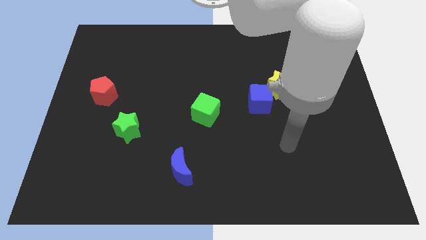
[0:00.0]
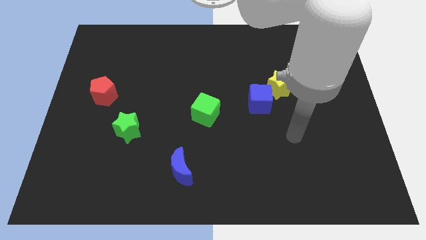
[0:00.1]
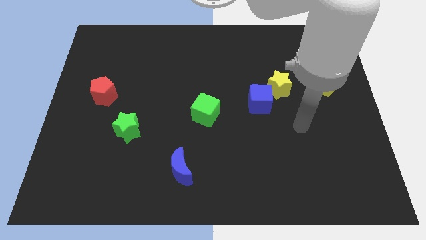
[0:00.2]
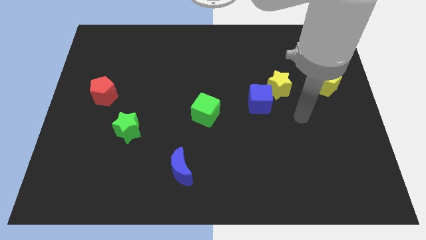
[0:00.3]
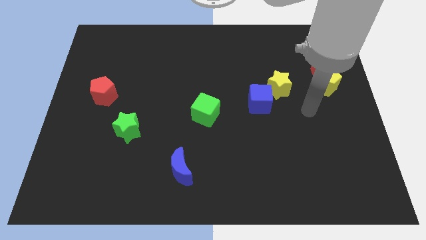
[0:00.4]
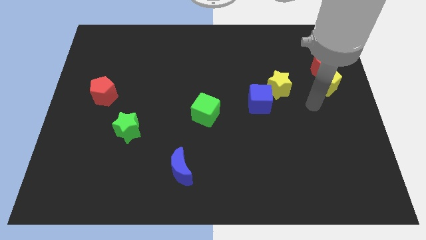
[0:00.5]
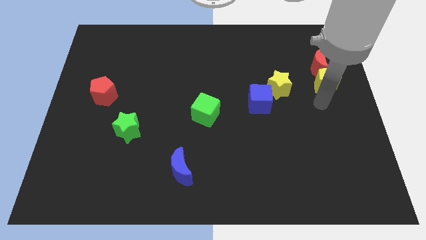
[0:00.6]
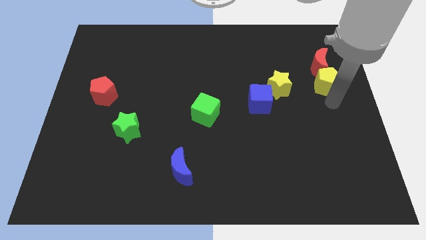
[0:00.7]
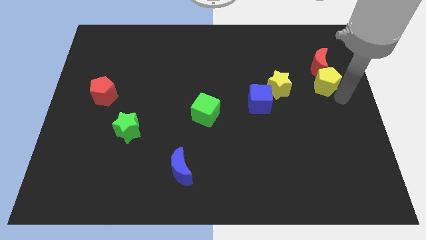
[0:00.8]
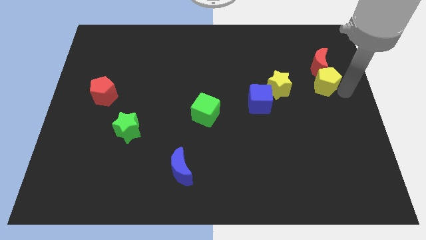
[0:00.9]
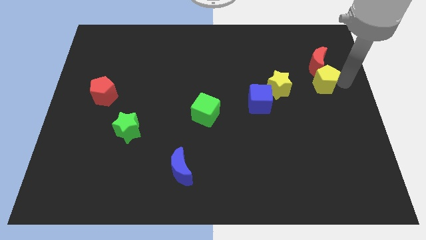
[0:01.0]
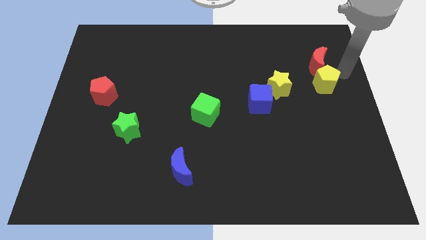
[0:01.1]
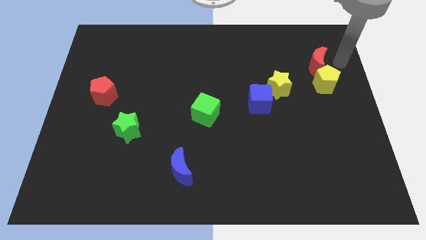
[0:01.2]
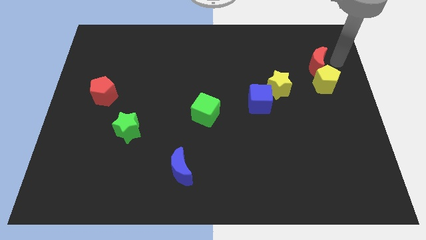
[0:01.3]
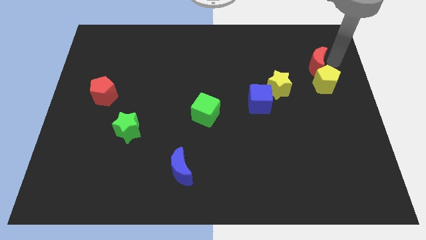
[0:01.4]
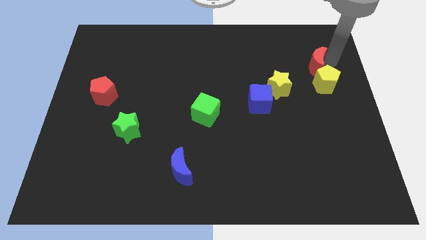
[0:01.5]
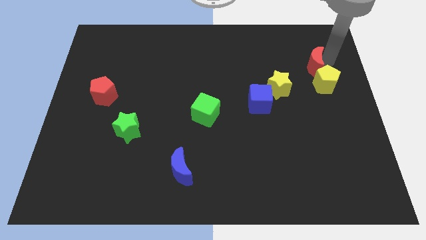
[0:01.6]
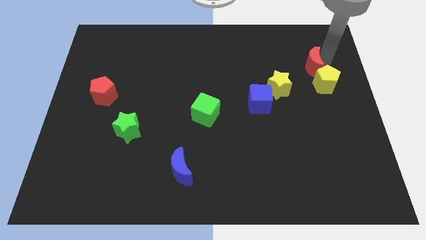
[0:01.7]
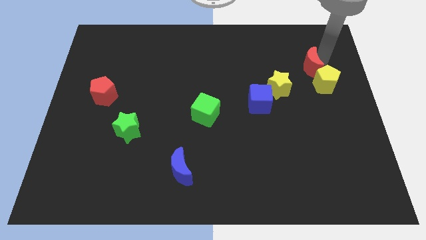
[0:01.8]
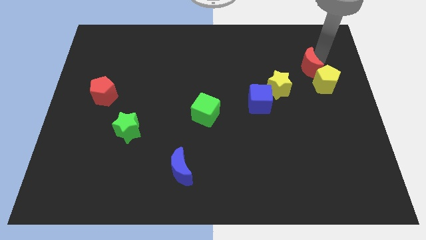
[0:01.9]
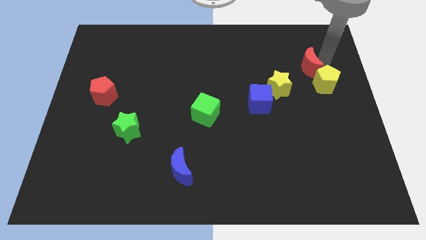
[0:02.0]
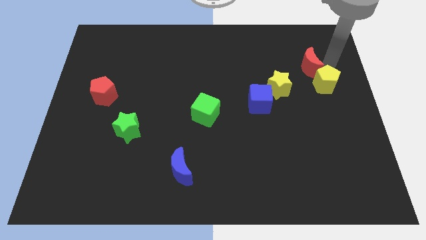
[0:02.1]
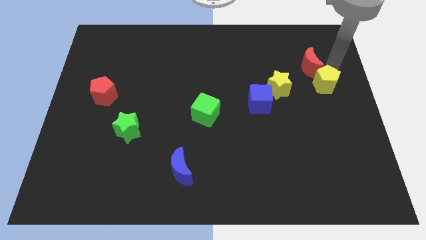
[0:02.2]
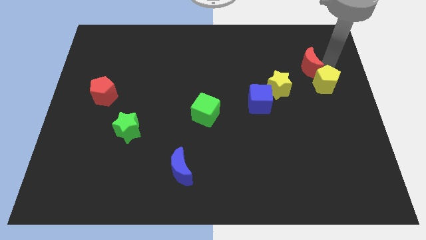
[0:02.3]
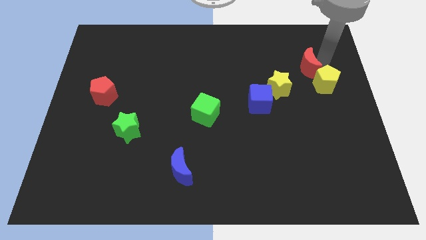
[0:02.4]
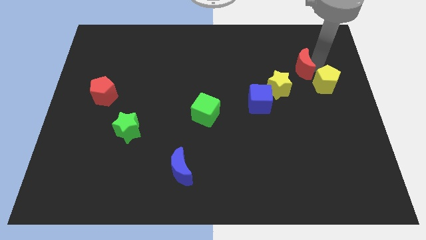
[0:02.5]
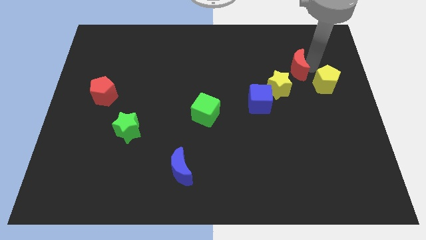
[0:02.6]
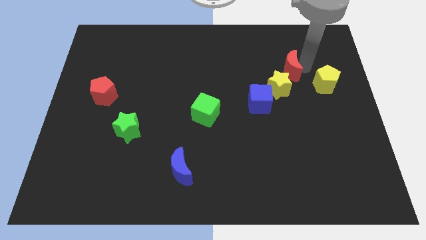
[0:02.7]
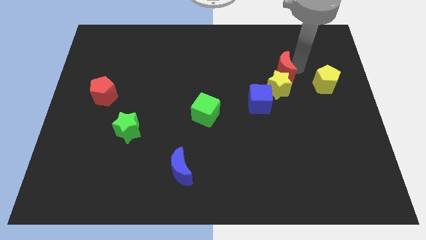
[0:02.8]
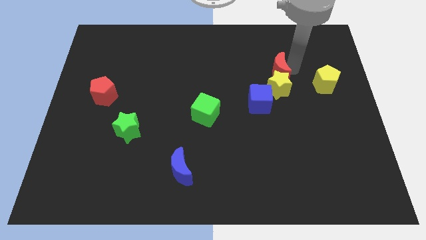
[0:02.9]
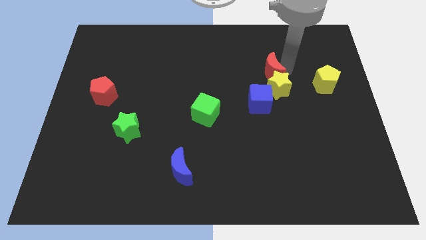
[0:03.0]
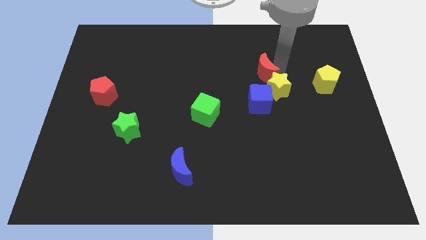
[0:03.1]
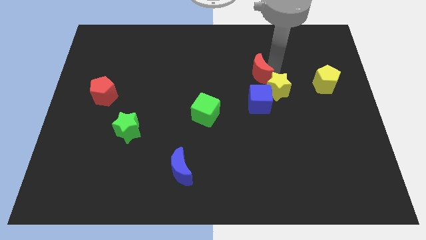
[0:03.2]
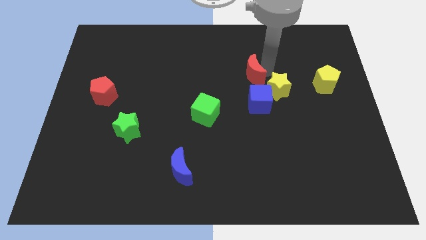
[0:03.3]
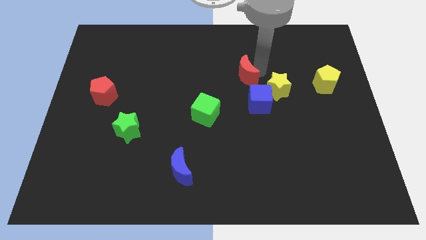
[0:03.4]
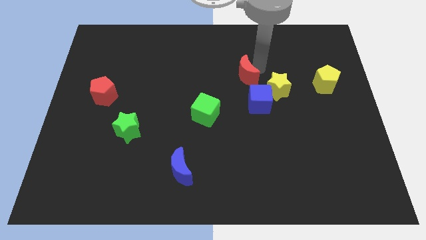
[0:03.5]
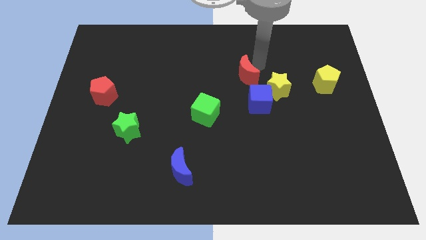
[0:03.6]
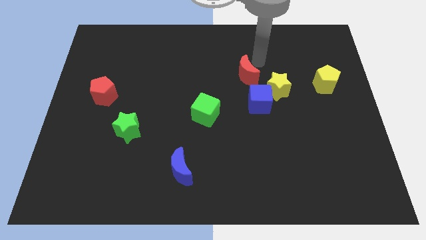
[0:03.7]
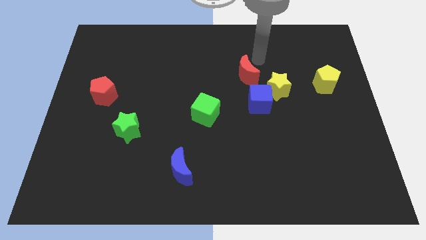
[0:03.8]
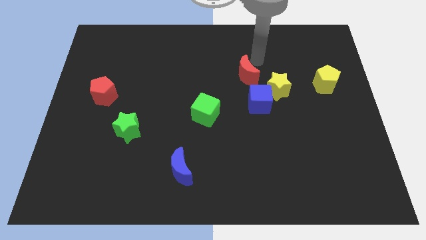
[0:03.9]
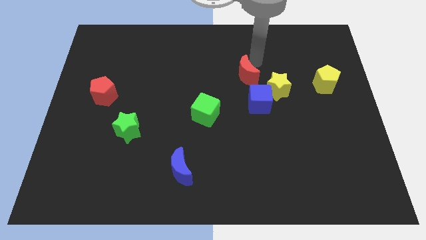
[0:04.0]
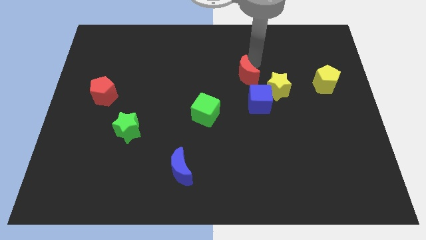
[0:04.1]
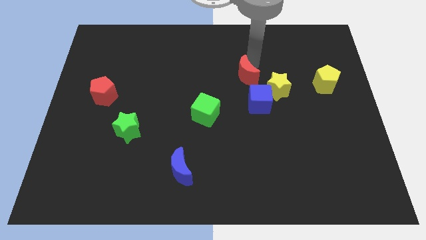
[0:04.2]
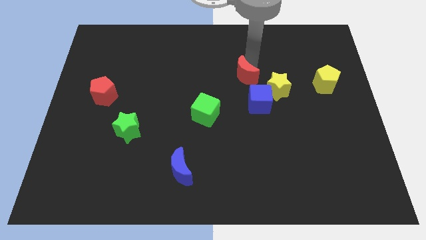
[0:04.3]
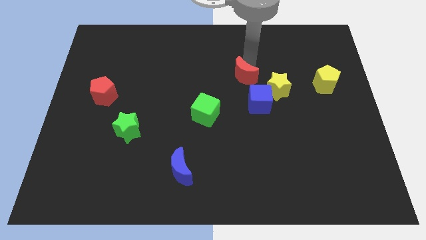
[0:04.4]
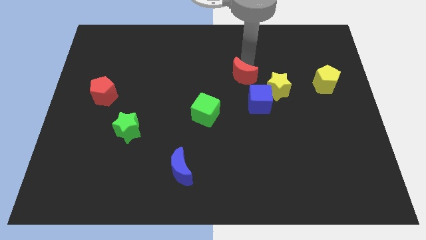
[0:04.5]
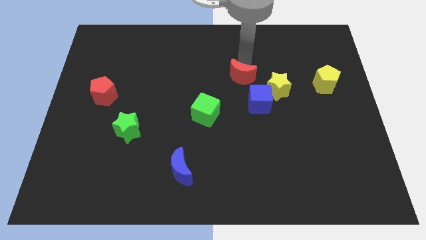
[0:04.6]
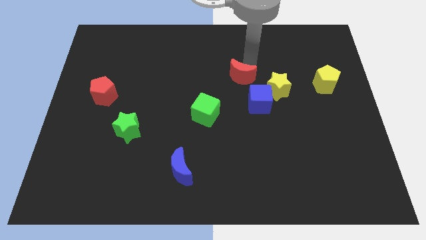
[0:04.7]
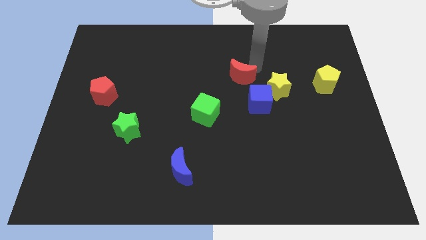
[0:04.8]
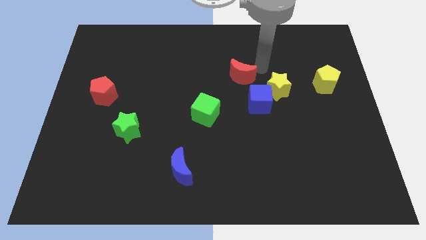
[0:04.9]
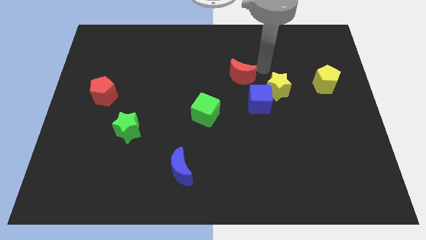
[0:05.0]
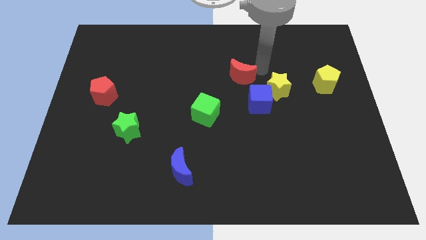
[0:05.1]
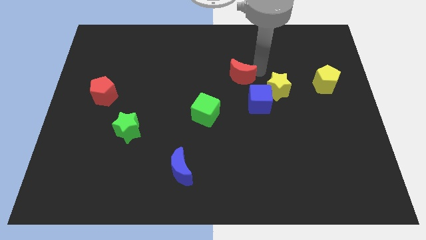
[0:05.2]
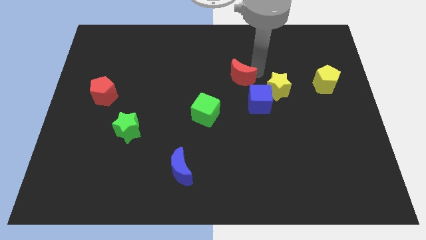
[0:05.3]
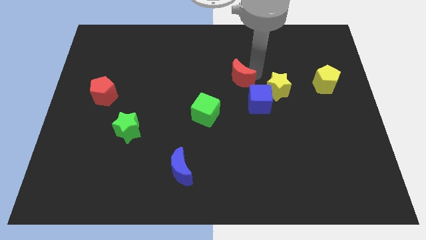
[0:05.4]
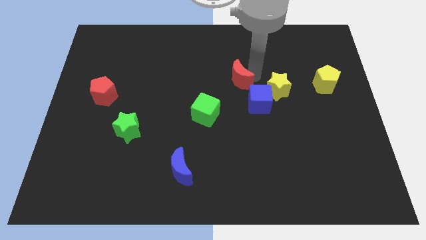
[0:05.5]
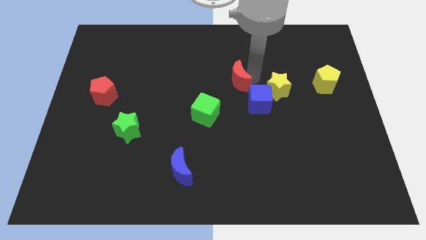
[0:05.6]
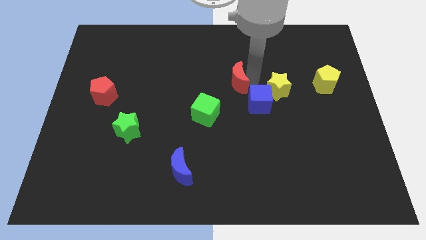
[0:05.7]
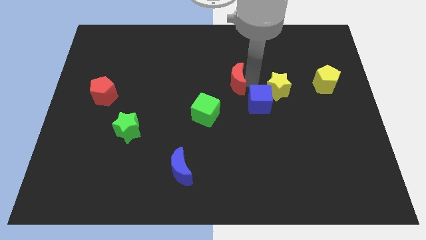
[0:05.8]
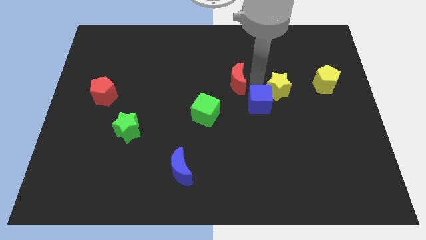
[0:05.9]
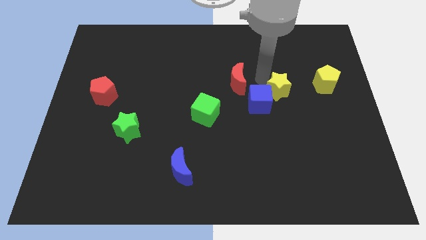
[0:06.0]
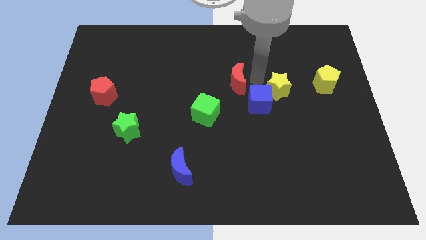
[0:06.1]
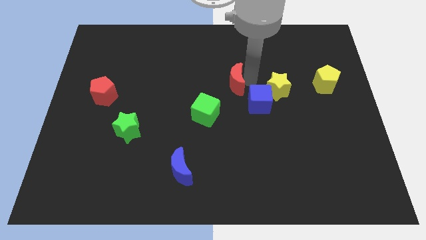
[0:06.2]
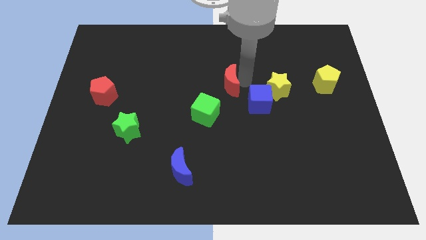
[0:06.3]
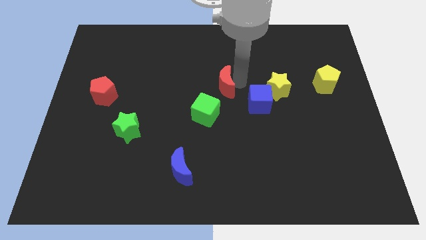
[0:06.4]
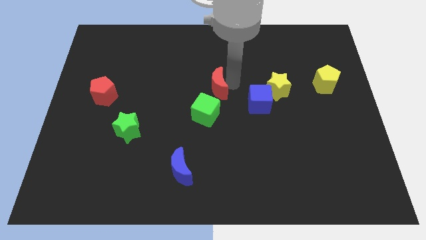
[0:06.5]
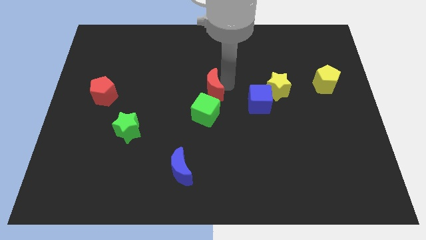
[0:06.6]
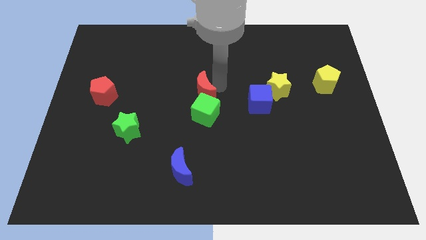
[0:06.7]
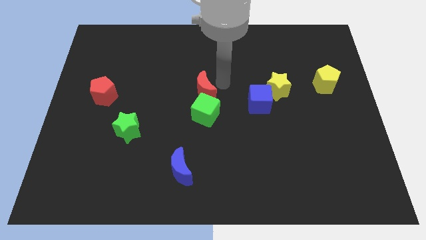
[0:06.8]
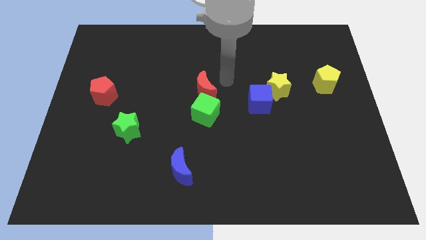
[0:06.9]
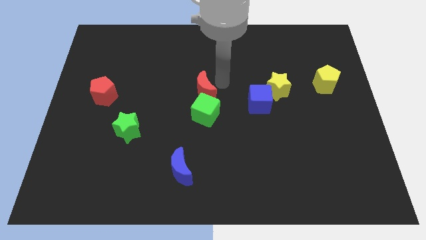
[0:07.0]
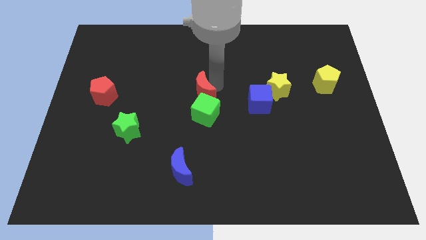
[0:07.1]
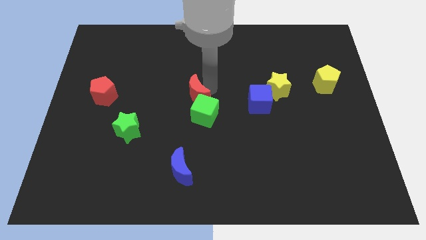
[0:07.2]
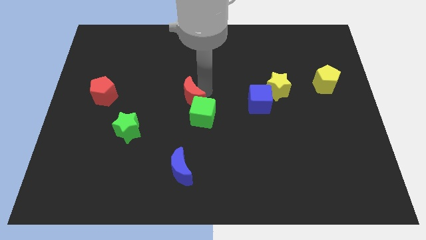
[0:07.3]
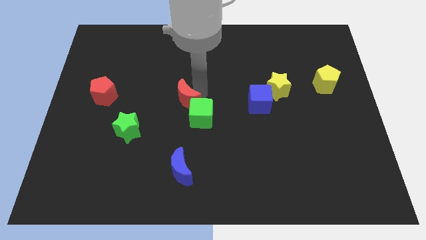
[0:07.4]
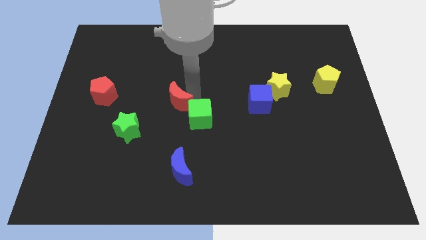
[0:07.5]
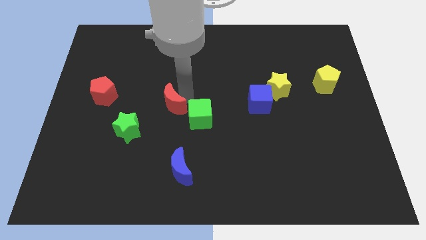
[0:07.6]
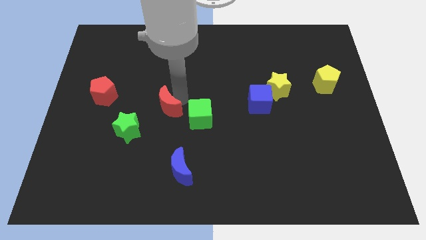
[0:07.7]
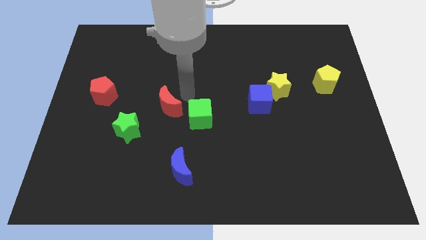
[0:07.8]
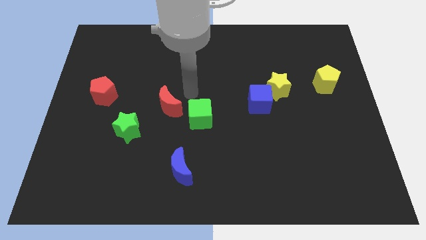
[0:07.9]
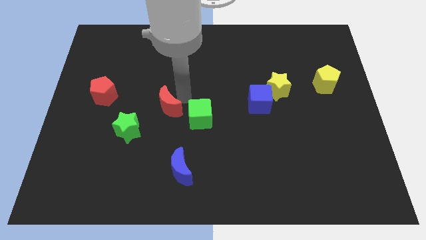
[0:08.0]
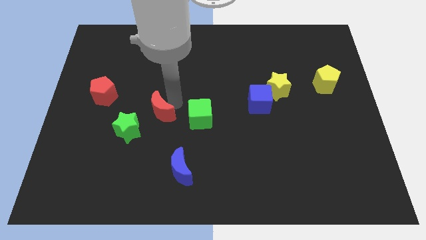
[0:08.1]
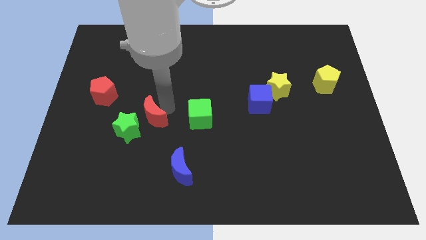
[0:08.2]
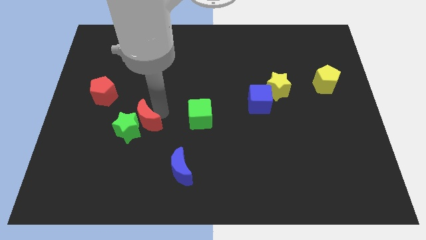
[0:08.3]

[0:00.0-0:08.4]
move the red moon towards the green star
